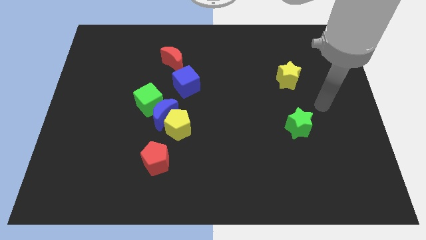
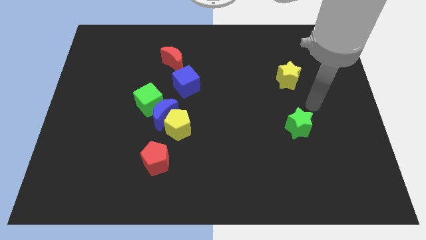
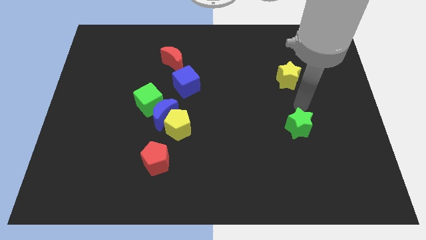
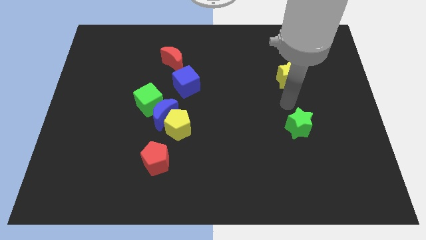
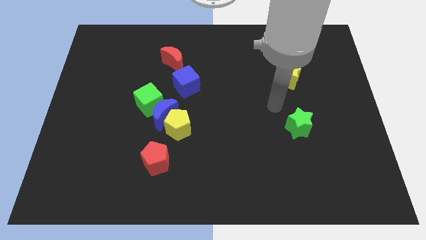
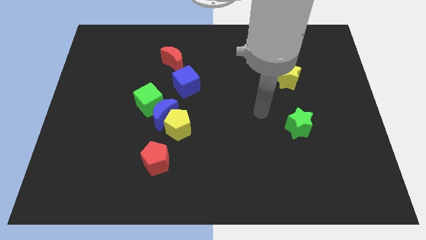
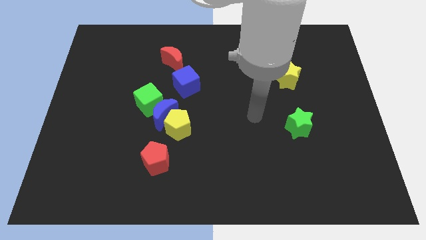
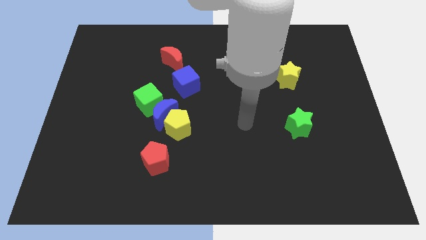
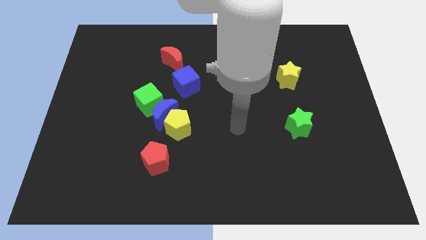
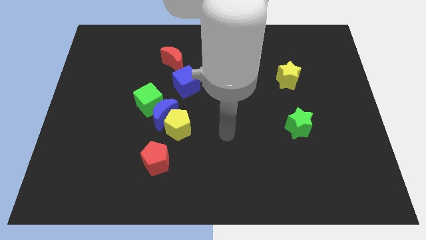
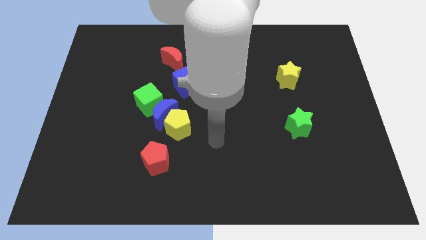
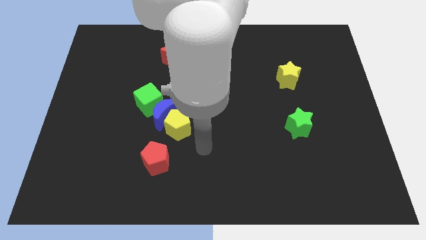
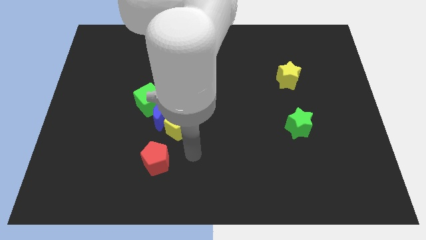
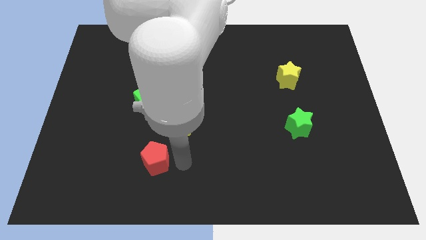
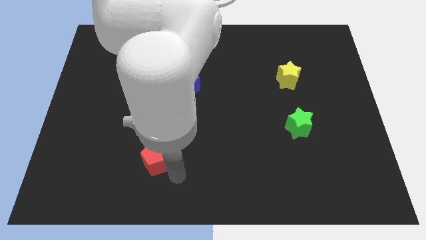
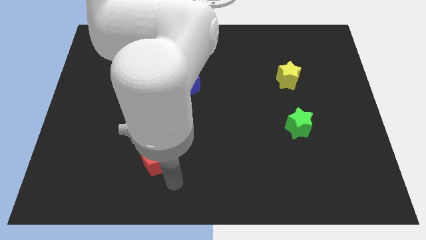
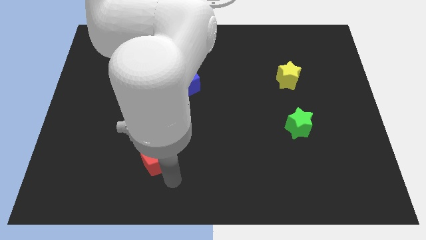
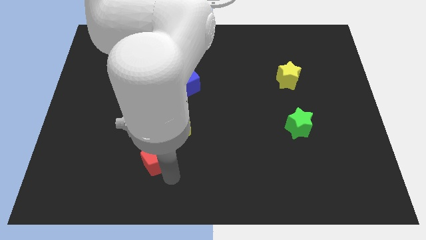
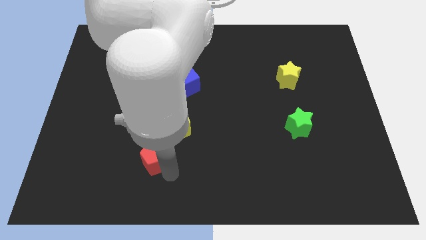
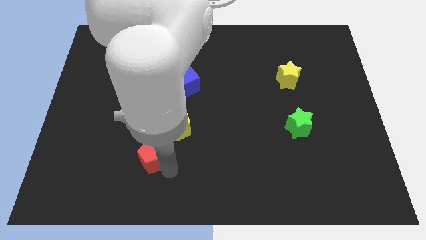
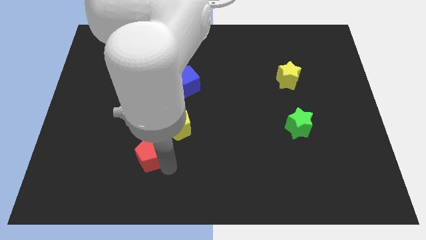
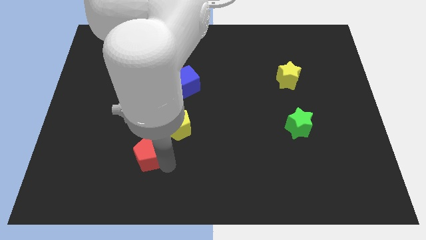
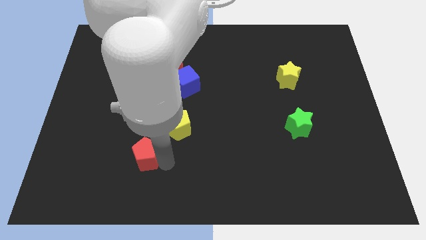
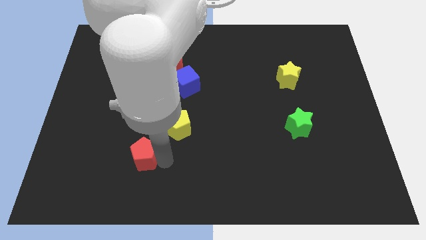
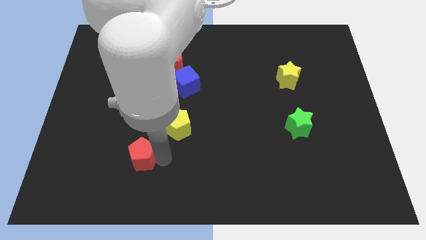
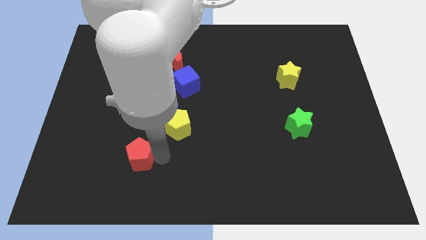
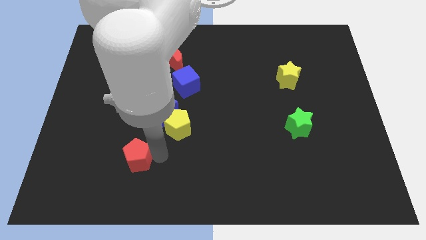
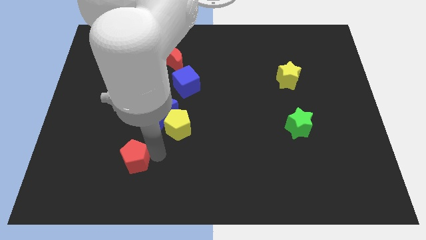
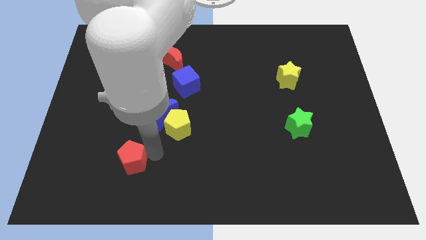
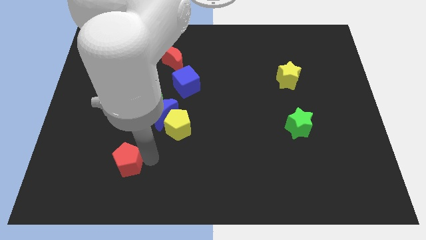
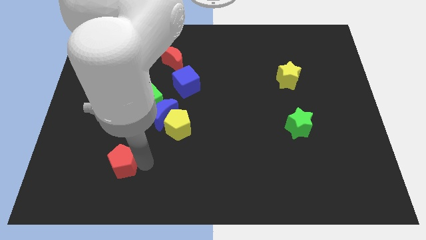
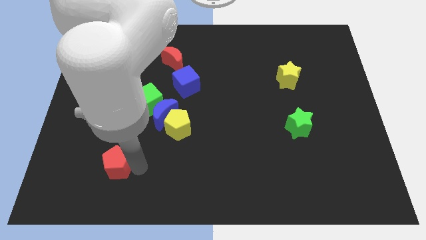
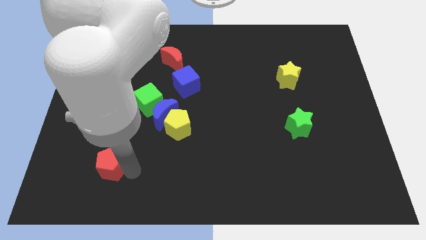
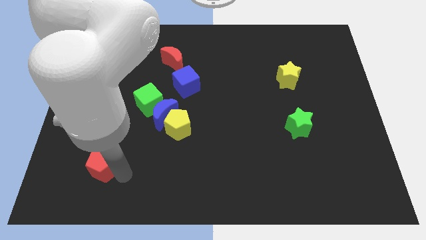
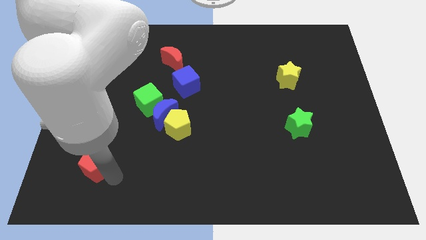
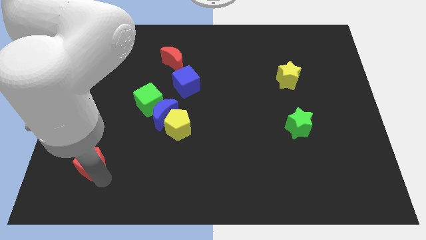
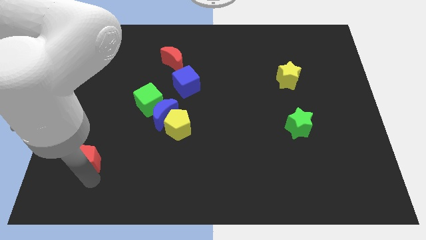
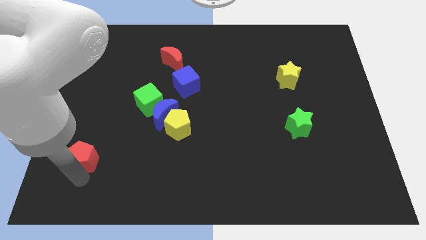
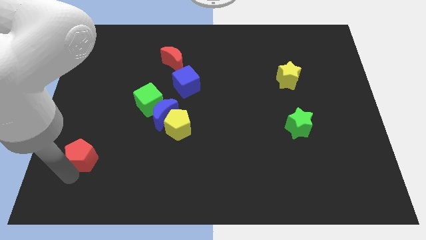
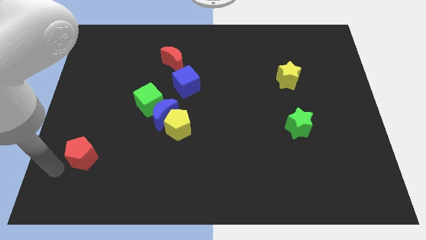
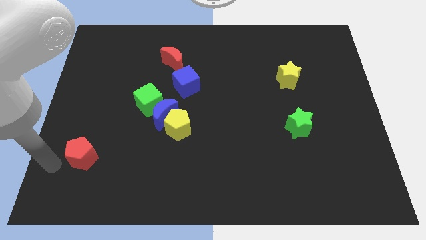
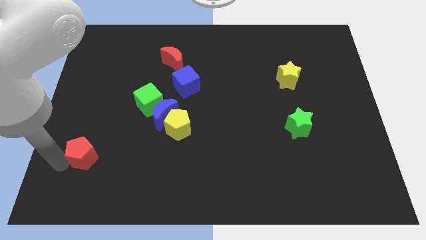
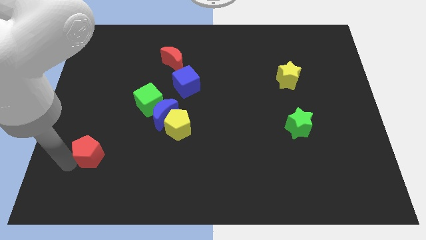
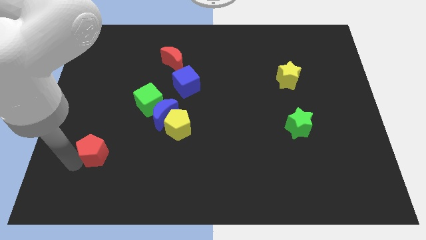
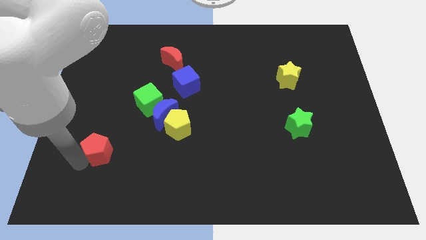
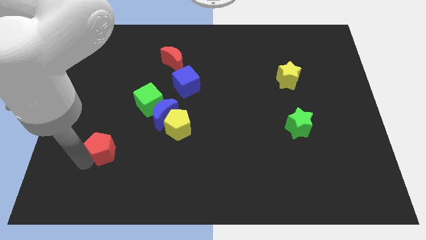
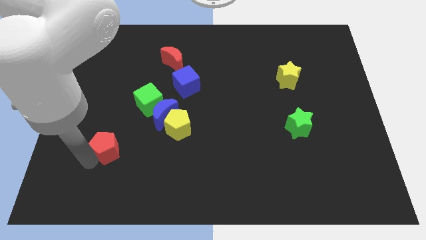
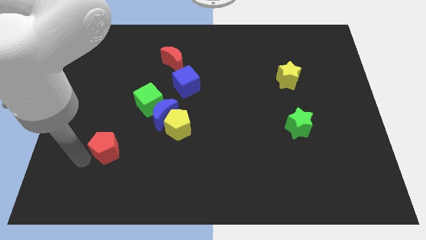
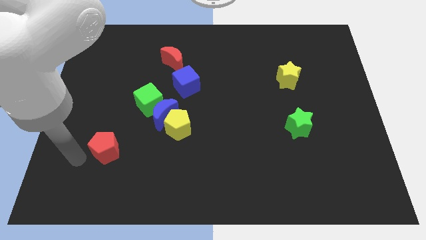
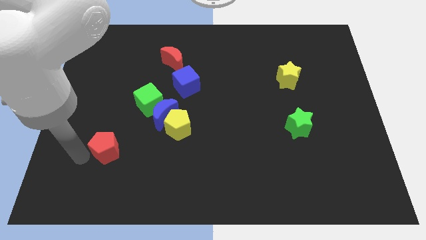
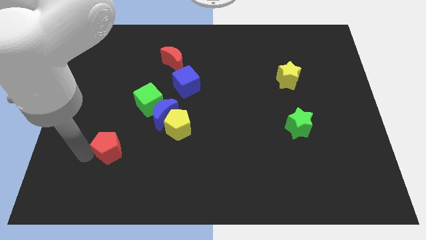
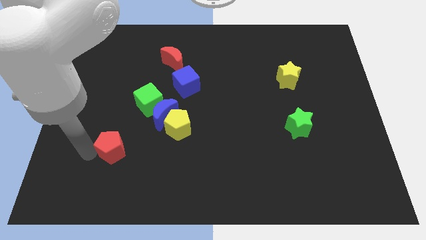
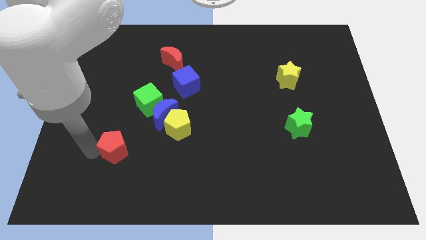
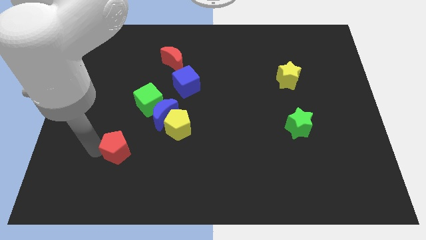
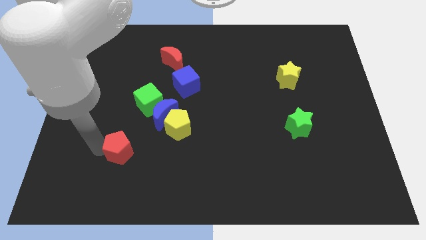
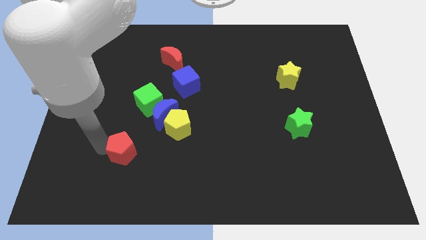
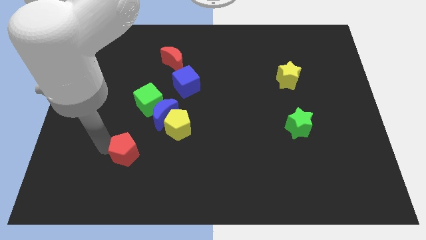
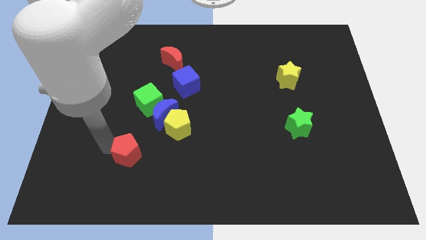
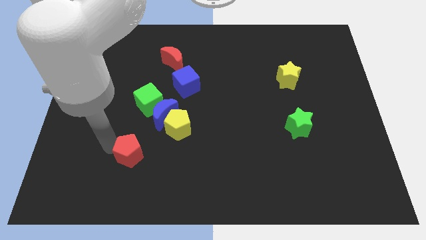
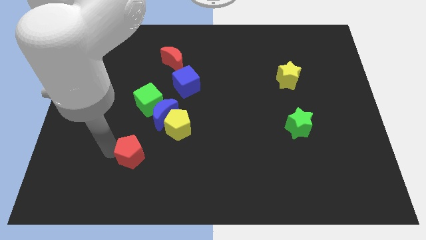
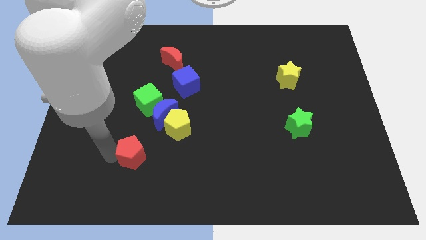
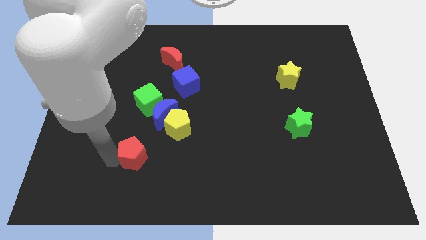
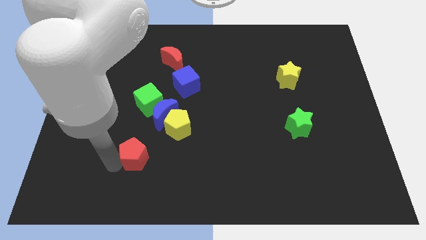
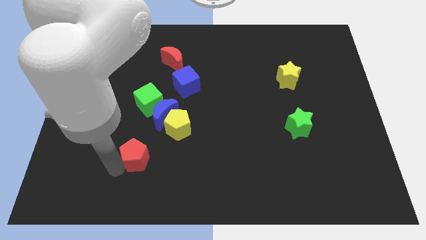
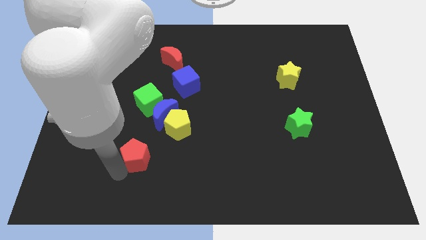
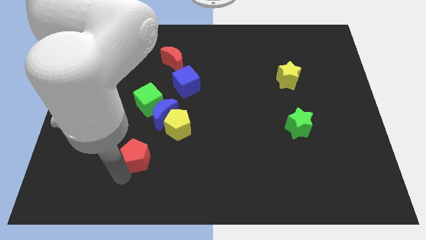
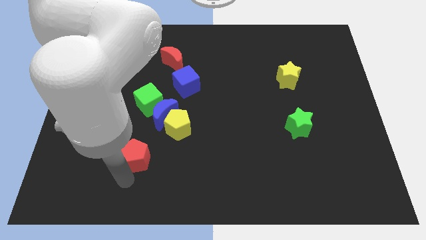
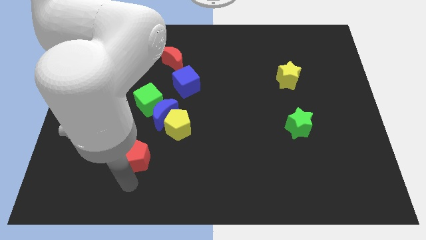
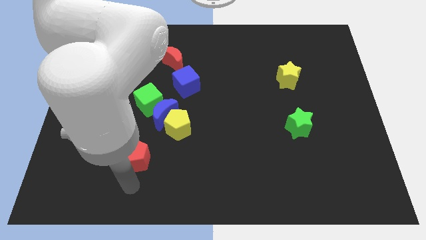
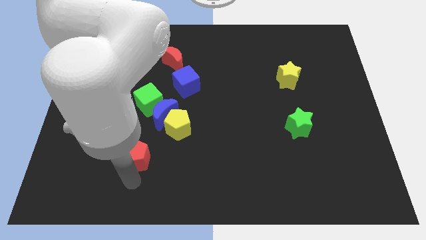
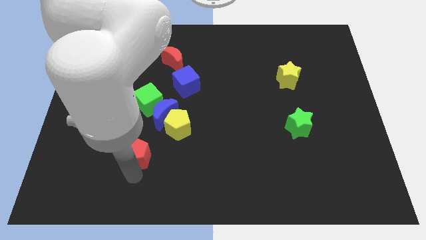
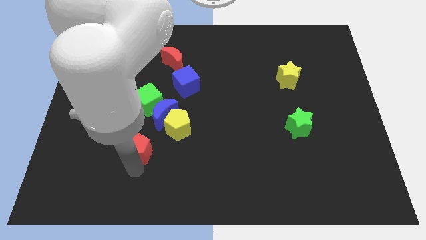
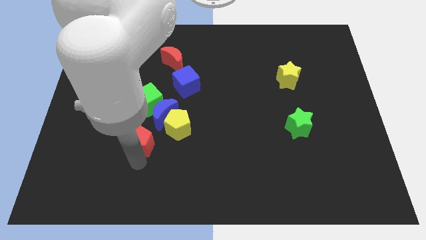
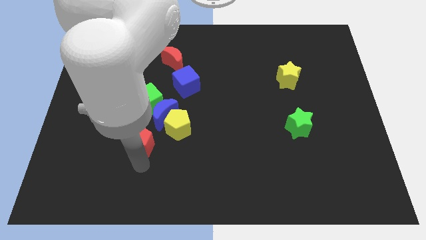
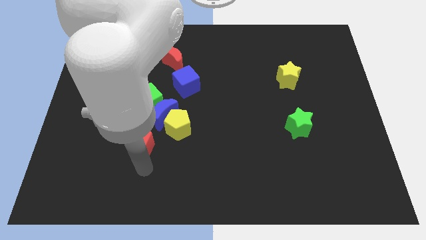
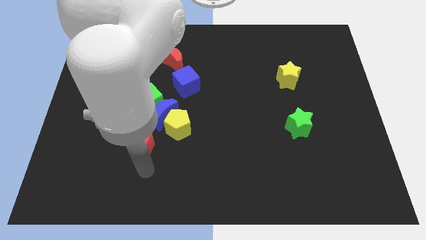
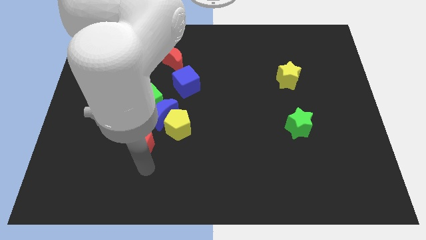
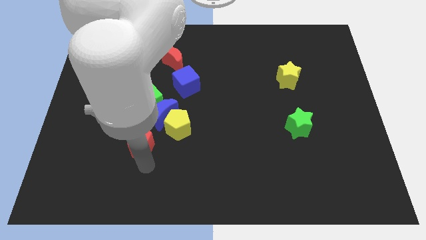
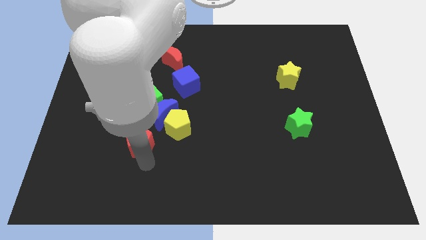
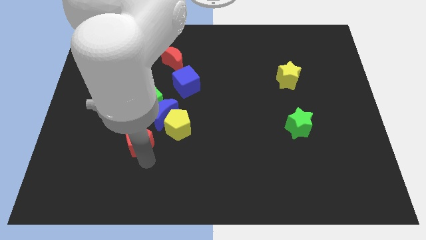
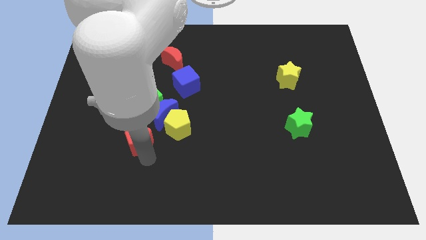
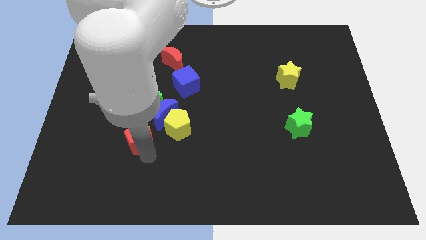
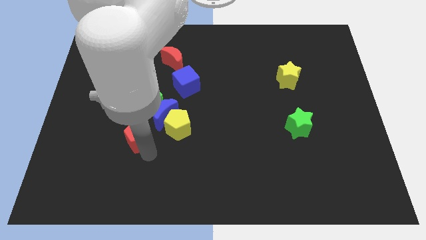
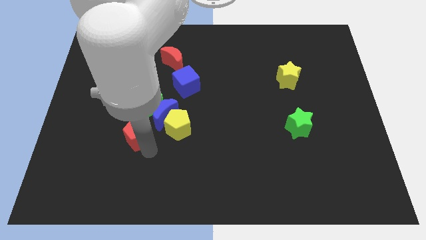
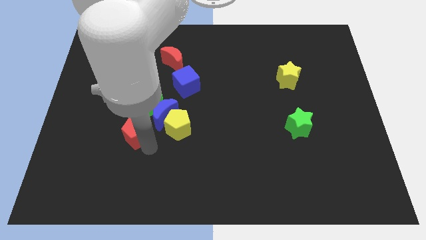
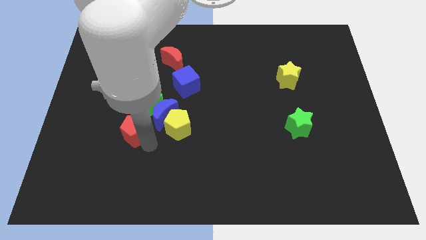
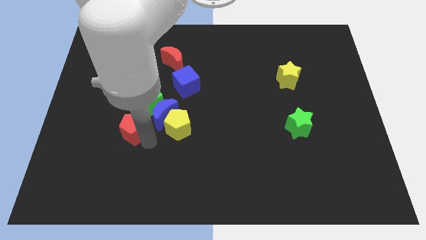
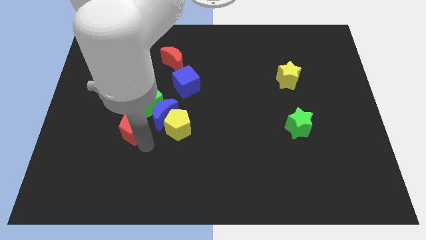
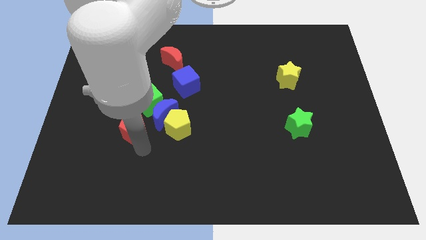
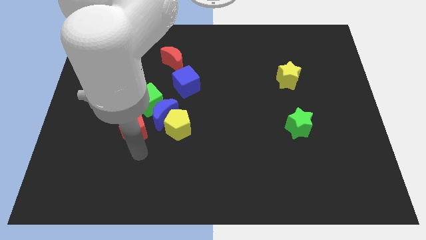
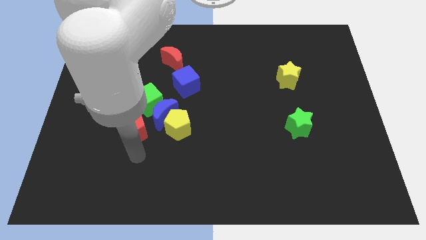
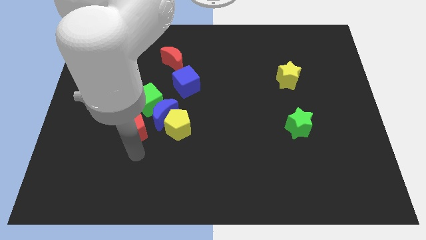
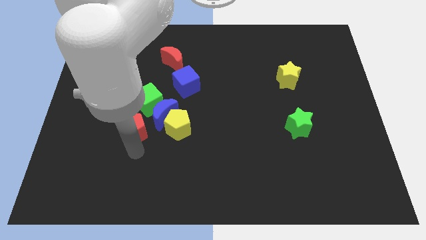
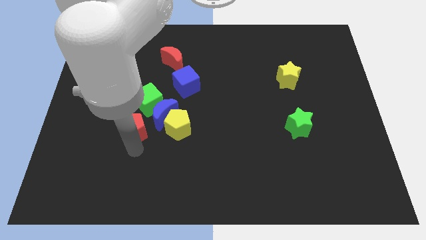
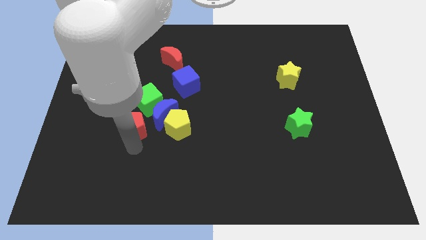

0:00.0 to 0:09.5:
slightly push the red pentagon upwards
